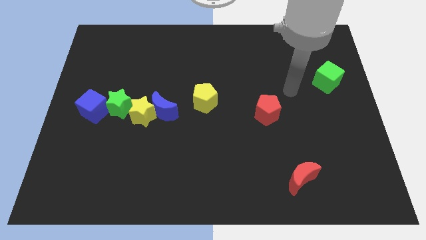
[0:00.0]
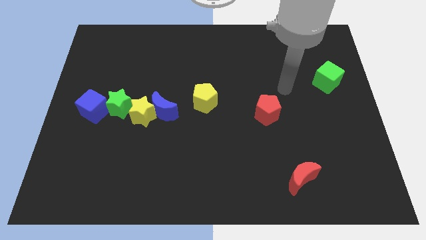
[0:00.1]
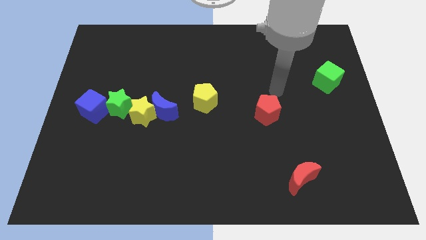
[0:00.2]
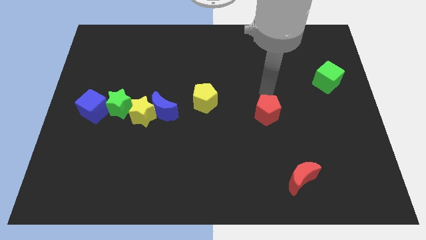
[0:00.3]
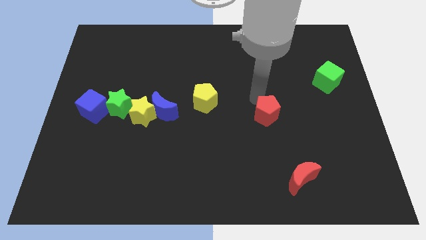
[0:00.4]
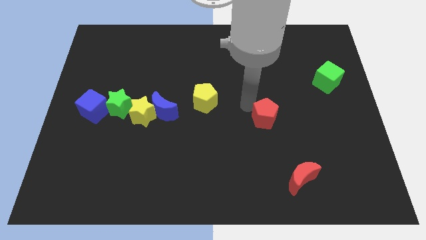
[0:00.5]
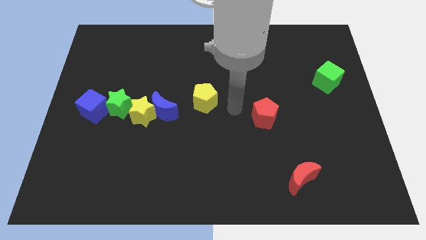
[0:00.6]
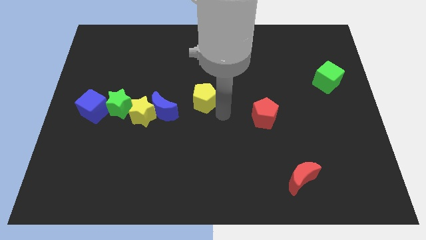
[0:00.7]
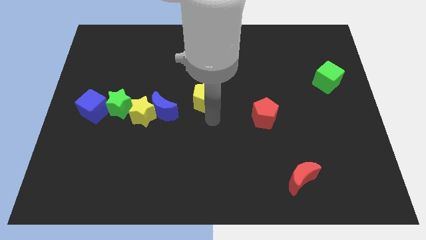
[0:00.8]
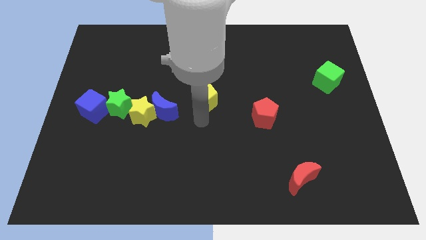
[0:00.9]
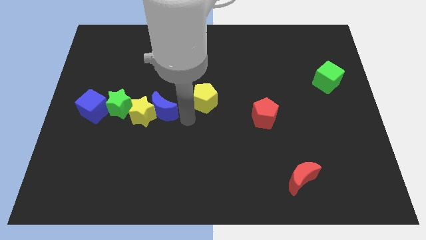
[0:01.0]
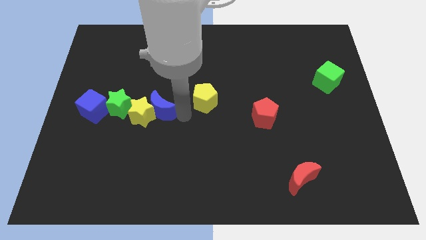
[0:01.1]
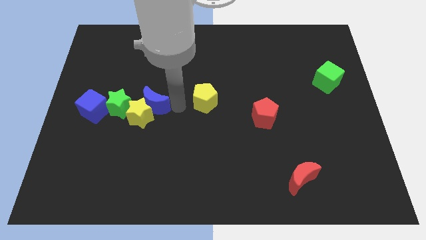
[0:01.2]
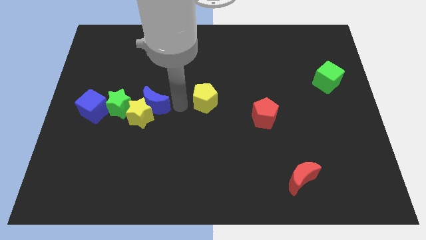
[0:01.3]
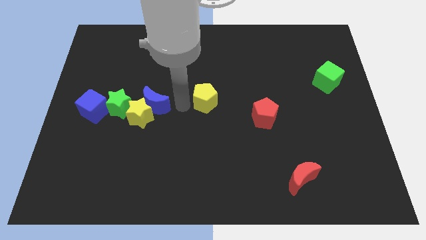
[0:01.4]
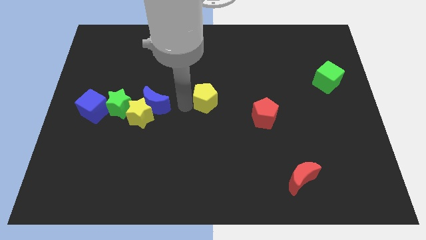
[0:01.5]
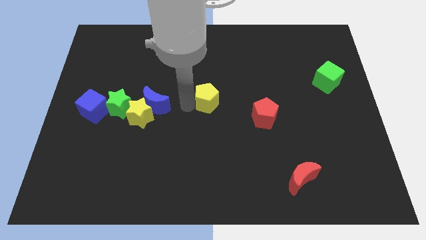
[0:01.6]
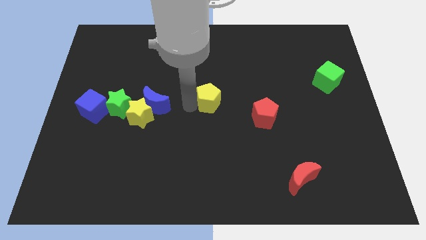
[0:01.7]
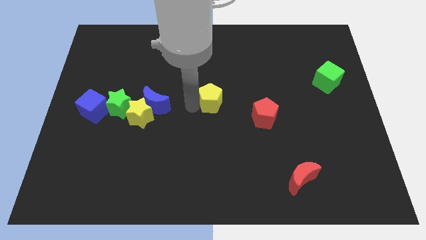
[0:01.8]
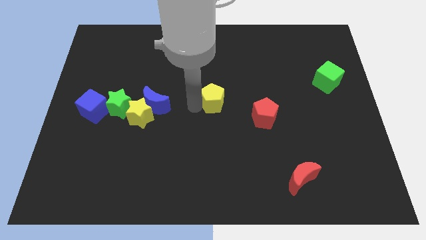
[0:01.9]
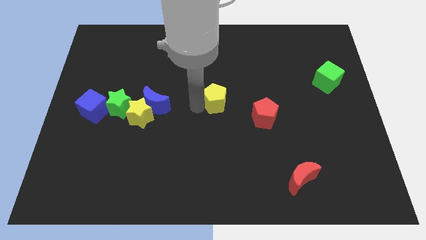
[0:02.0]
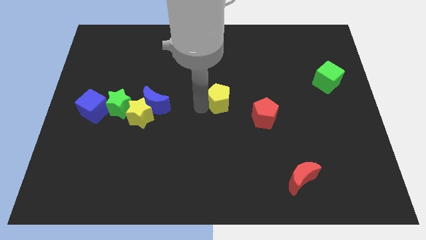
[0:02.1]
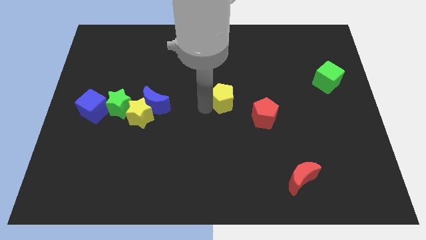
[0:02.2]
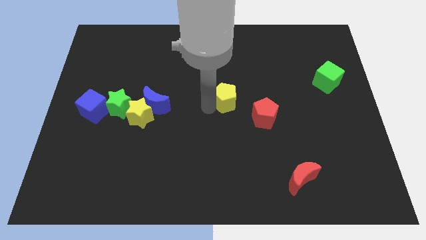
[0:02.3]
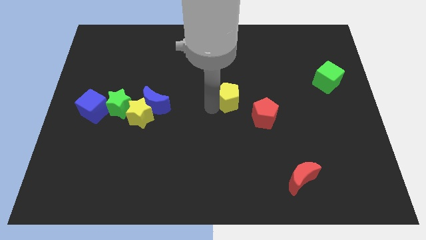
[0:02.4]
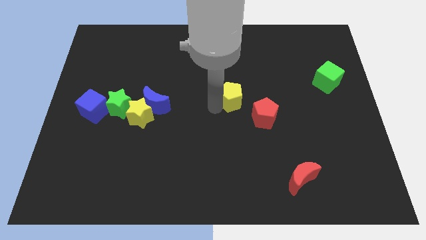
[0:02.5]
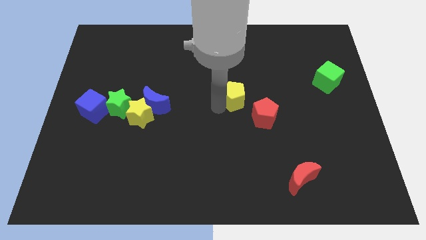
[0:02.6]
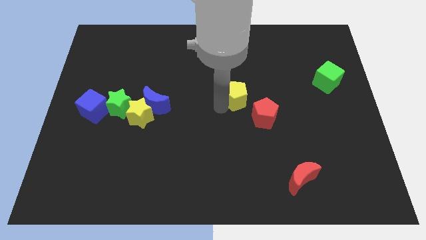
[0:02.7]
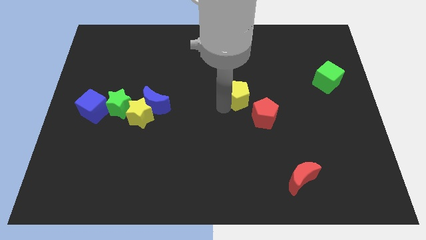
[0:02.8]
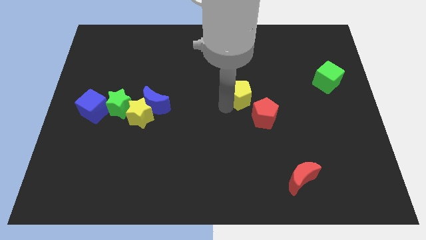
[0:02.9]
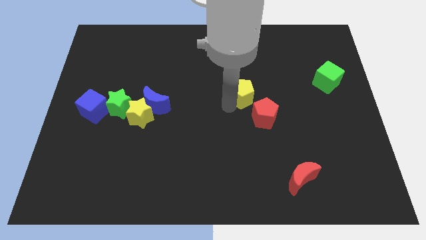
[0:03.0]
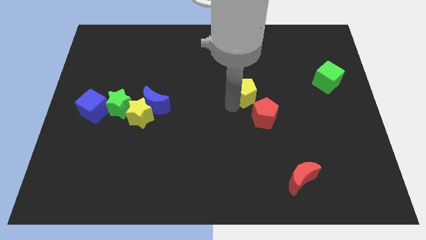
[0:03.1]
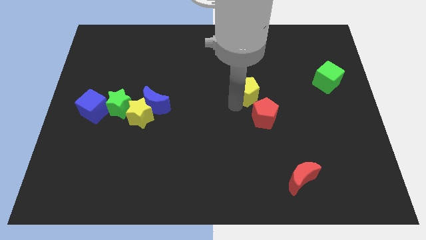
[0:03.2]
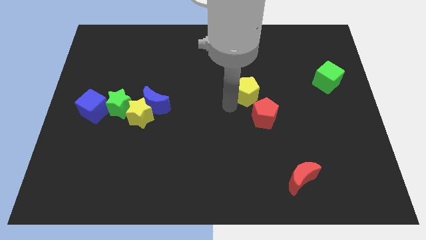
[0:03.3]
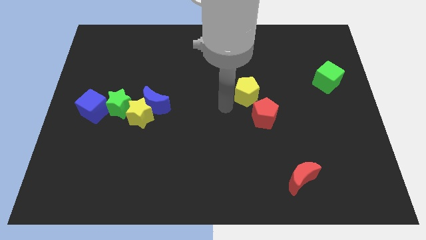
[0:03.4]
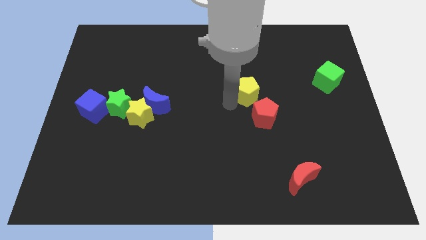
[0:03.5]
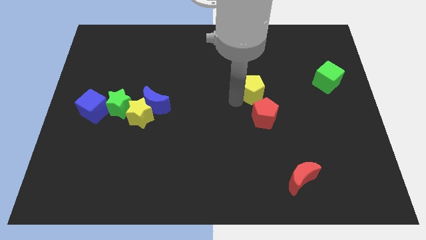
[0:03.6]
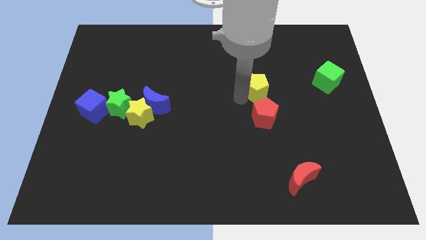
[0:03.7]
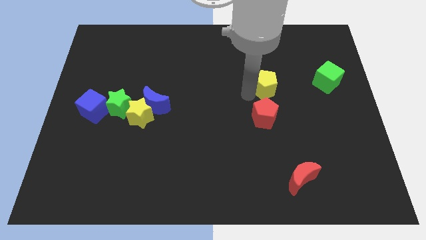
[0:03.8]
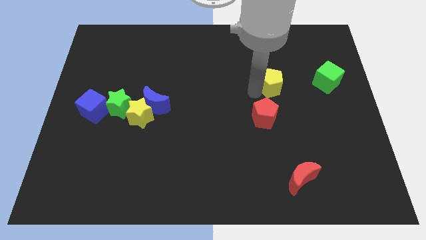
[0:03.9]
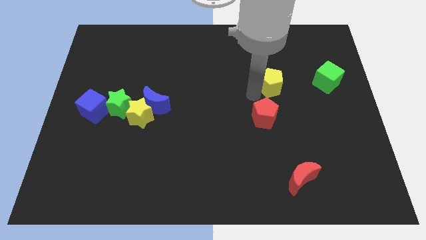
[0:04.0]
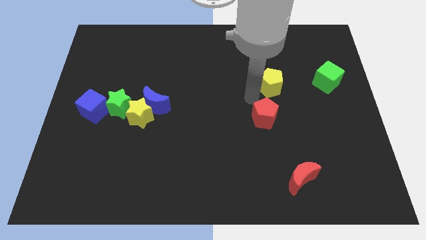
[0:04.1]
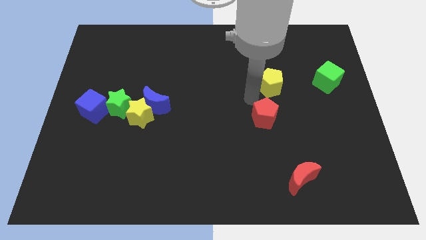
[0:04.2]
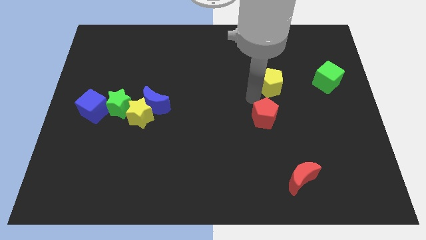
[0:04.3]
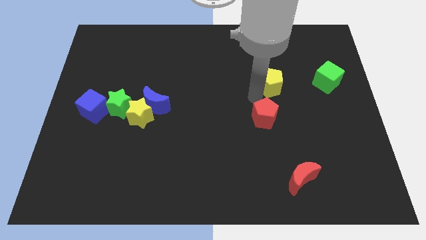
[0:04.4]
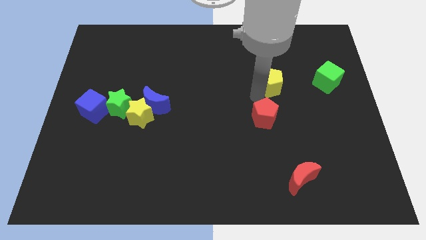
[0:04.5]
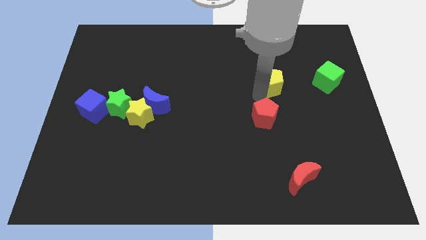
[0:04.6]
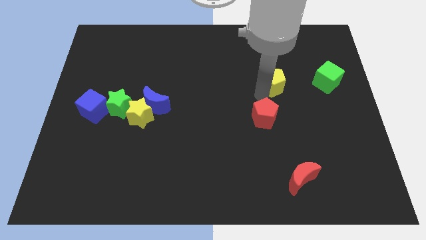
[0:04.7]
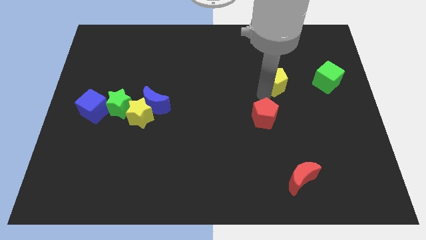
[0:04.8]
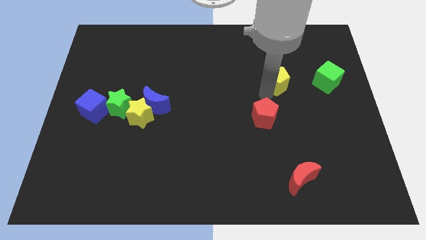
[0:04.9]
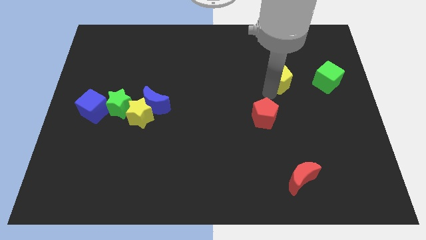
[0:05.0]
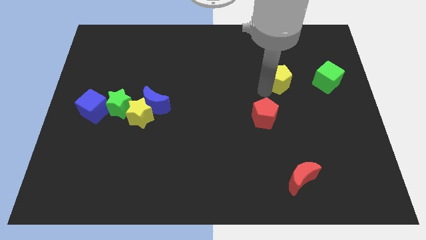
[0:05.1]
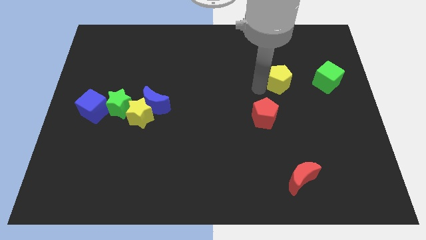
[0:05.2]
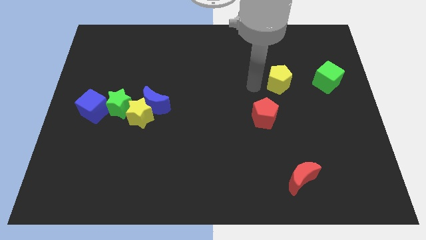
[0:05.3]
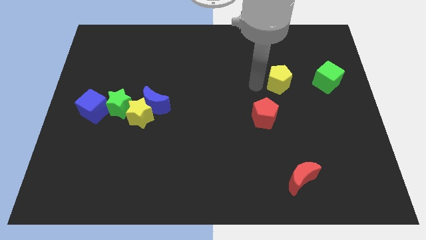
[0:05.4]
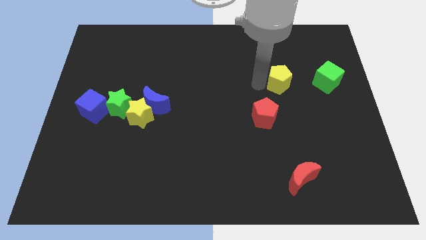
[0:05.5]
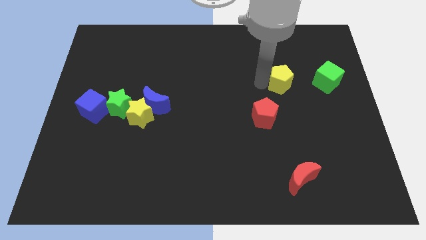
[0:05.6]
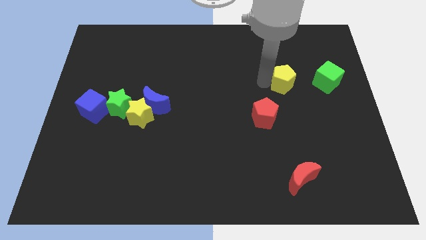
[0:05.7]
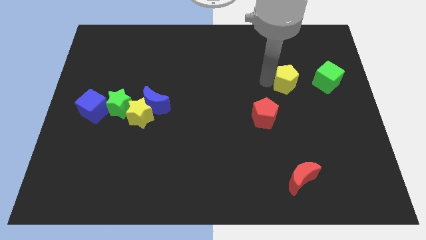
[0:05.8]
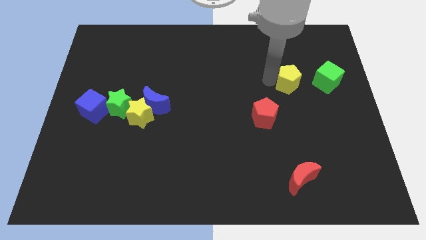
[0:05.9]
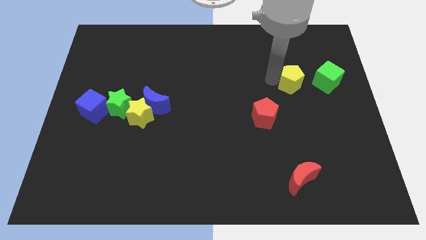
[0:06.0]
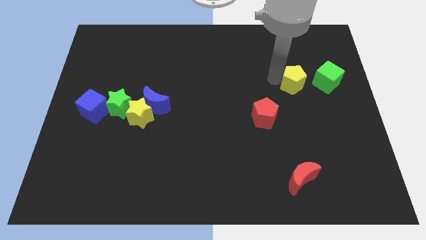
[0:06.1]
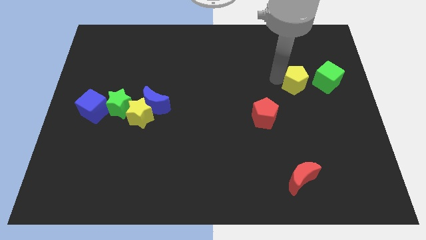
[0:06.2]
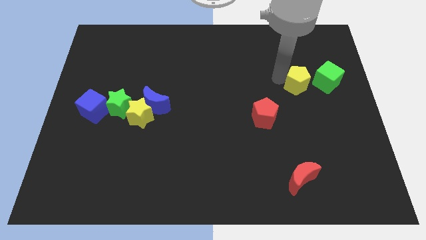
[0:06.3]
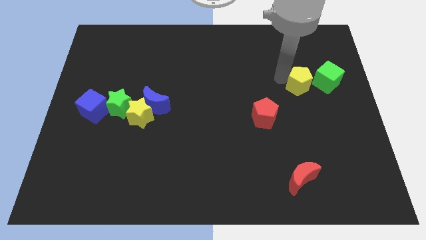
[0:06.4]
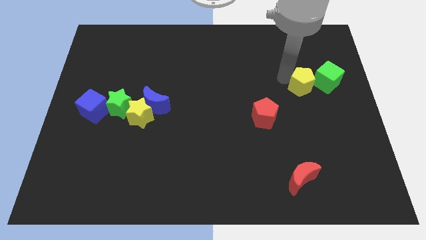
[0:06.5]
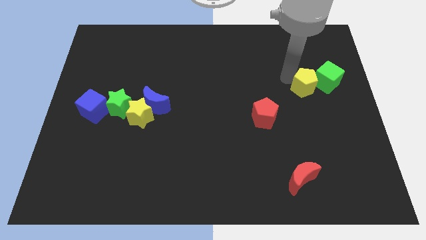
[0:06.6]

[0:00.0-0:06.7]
put the yellow pentagon towards the green cube
